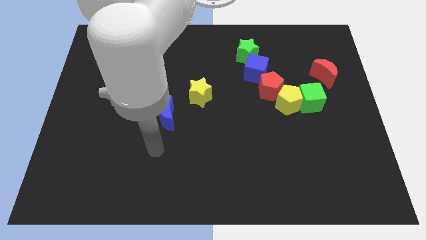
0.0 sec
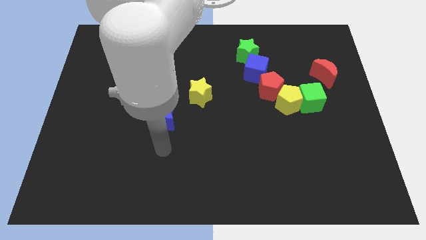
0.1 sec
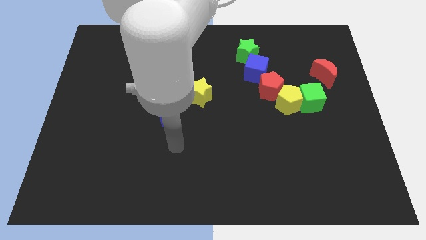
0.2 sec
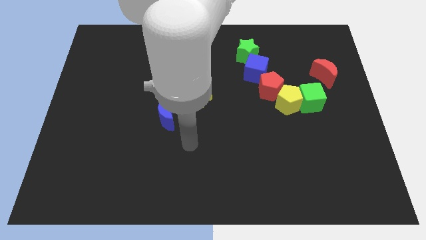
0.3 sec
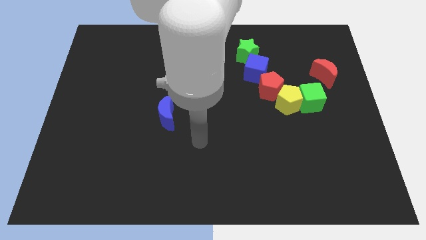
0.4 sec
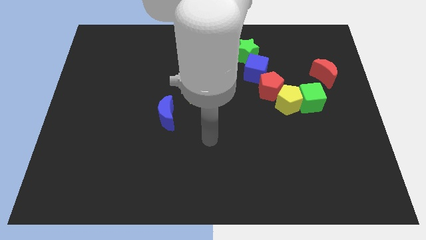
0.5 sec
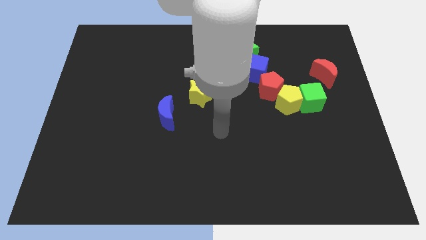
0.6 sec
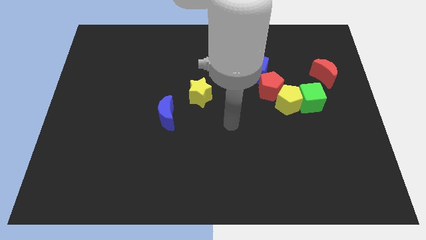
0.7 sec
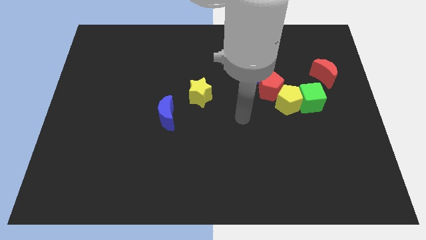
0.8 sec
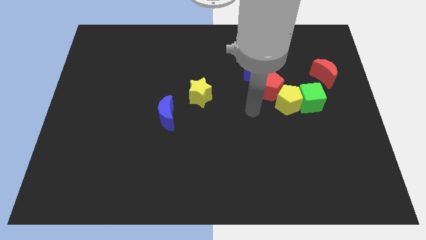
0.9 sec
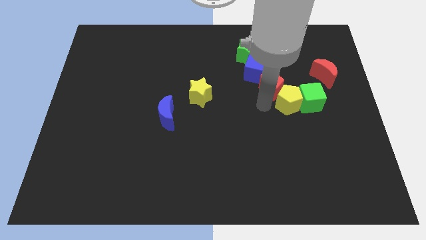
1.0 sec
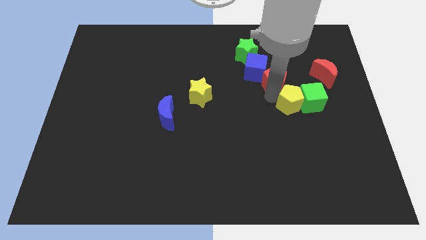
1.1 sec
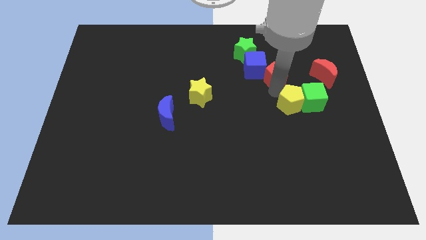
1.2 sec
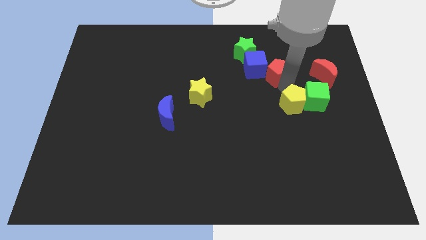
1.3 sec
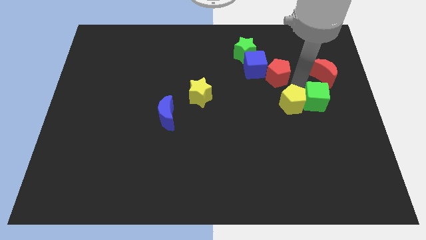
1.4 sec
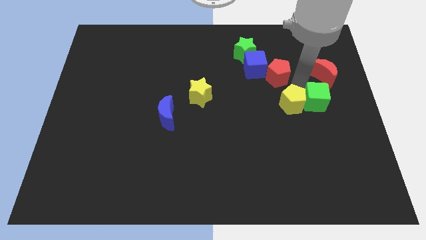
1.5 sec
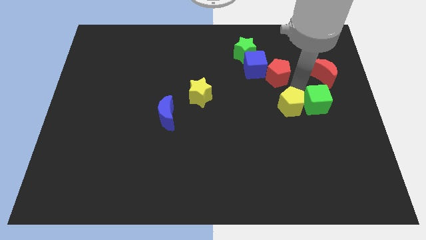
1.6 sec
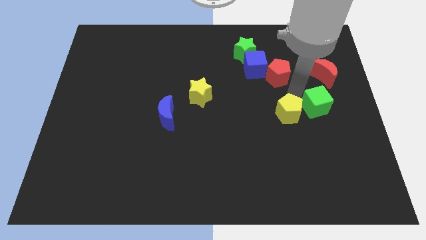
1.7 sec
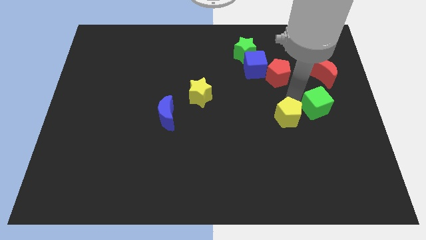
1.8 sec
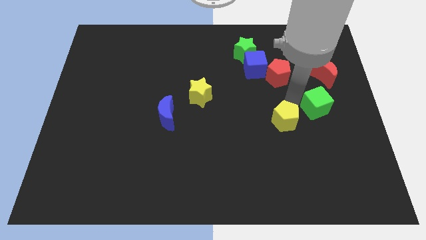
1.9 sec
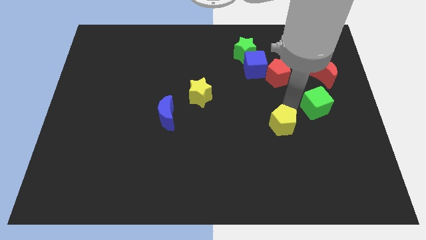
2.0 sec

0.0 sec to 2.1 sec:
move the yellow pentagon away from the green cube and red pentagon

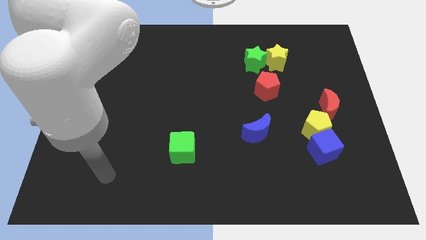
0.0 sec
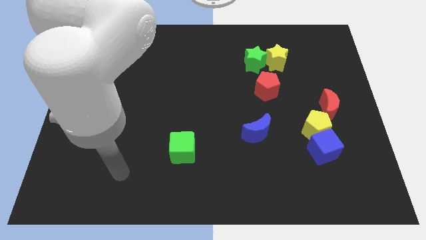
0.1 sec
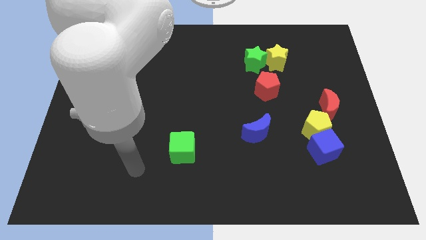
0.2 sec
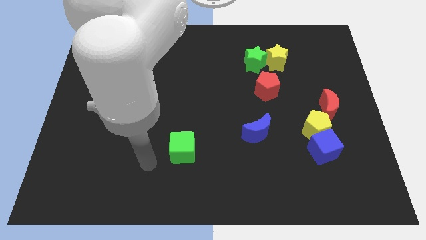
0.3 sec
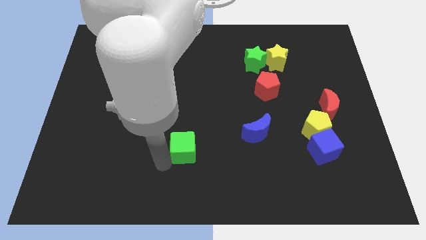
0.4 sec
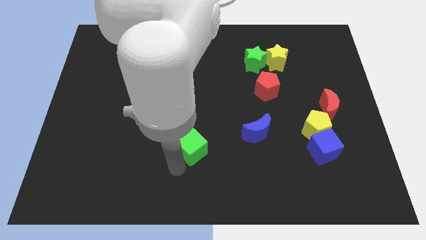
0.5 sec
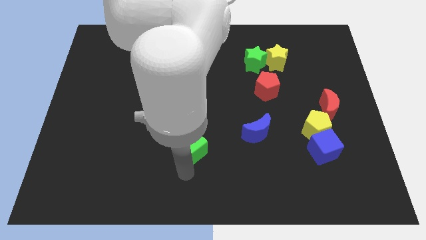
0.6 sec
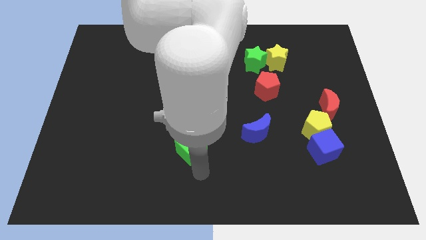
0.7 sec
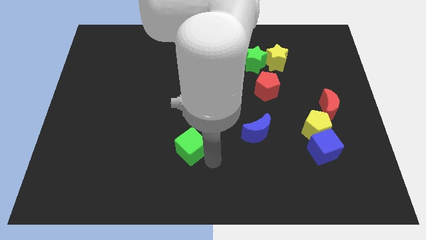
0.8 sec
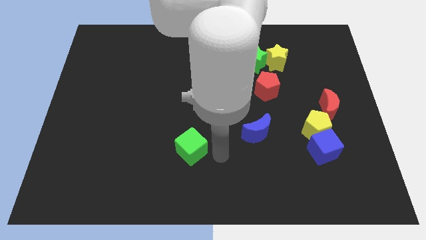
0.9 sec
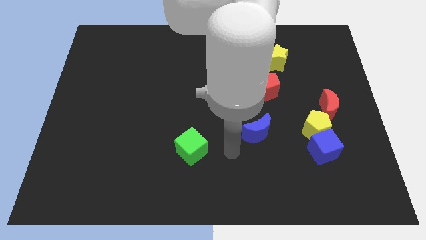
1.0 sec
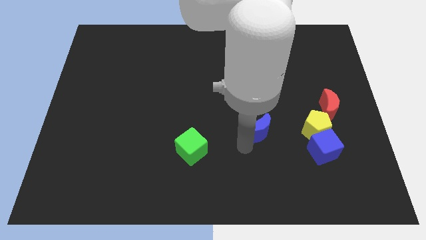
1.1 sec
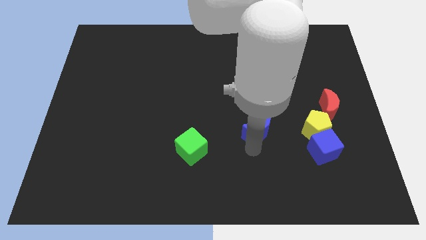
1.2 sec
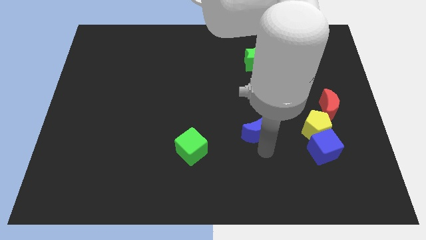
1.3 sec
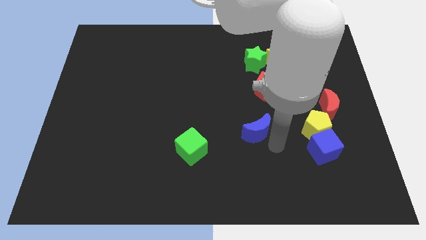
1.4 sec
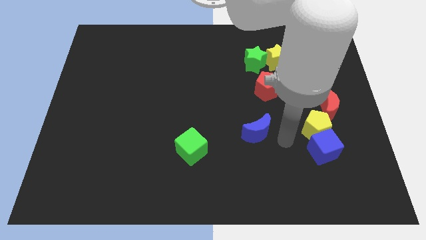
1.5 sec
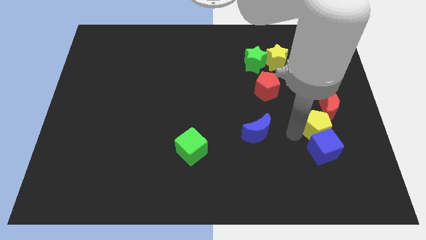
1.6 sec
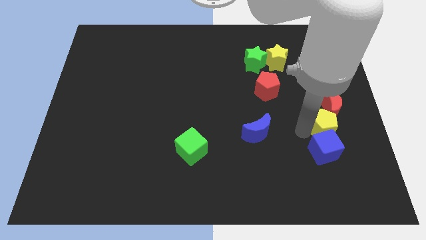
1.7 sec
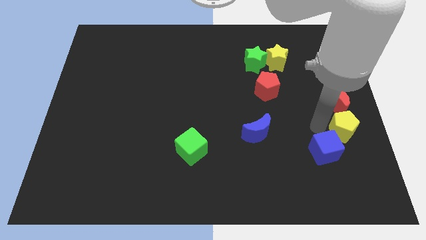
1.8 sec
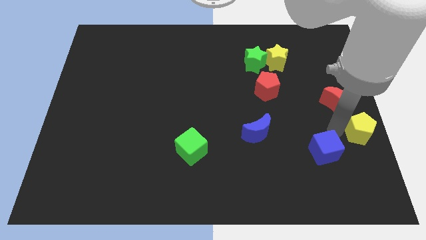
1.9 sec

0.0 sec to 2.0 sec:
pull the blue cube apart from the yellow pentagon

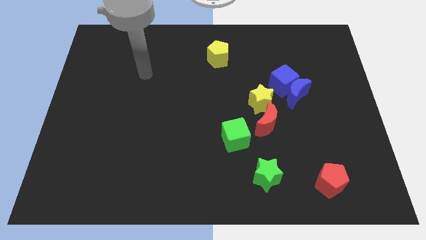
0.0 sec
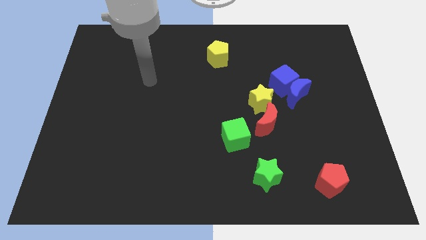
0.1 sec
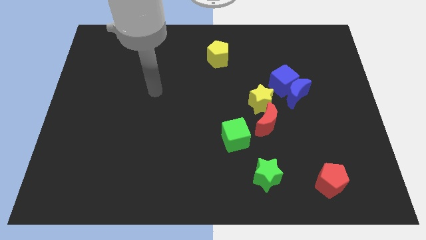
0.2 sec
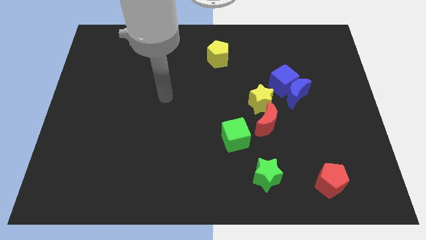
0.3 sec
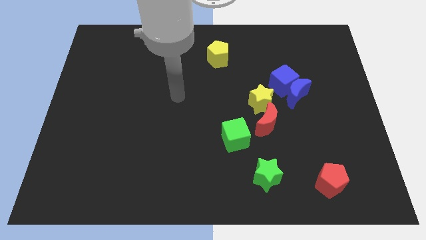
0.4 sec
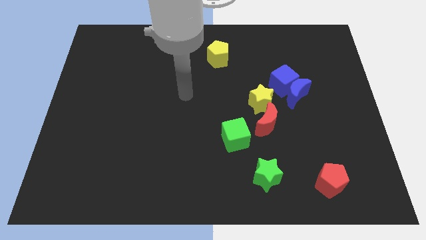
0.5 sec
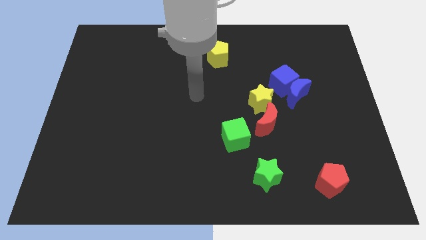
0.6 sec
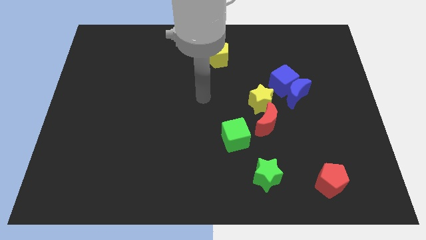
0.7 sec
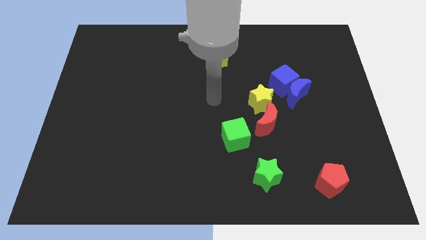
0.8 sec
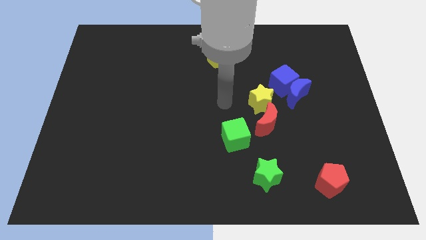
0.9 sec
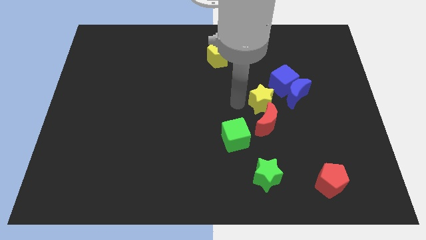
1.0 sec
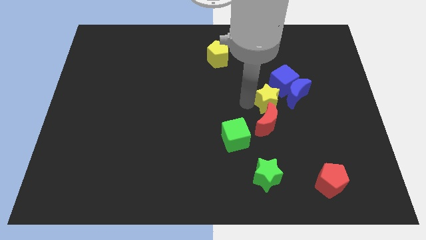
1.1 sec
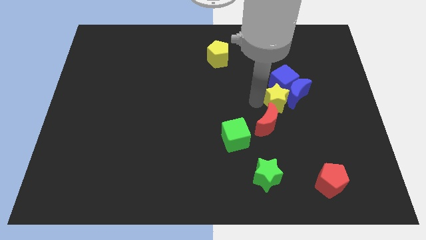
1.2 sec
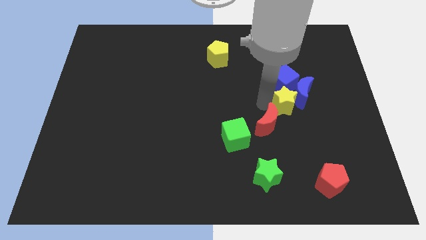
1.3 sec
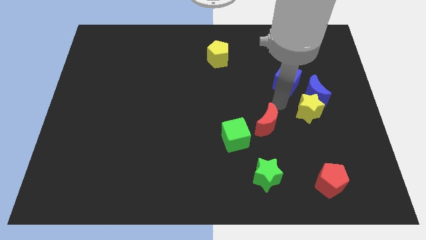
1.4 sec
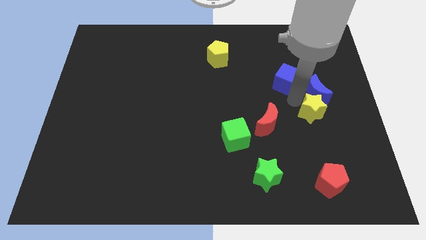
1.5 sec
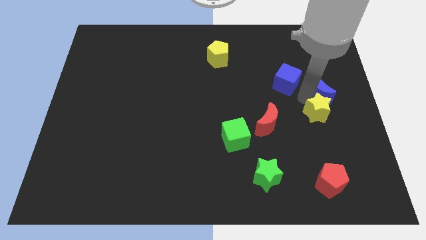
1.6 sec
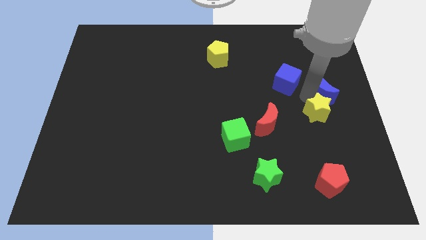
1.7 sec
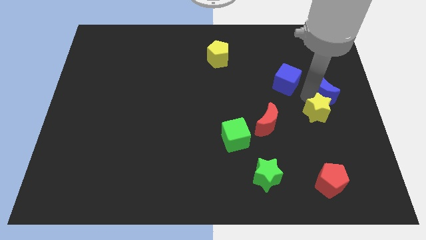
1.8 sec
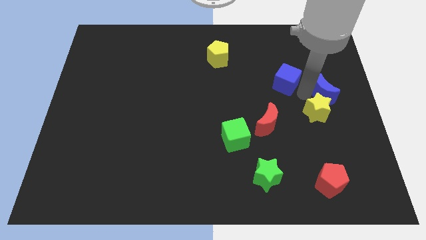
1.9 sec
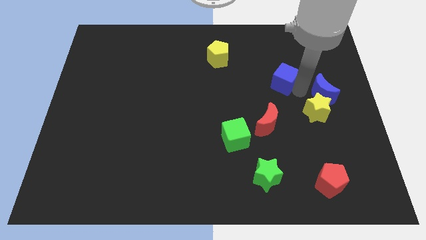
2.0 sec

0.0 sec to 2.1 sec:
pull the blue cube apart from the blue moon and yellow star

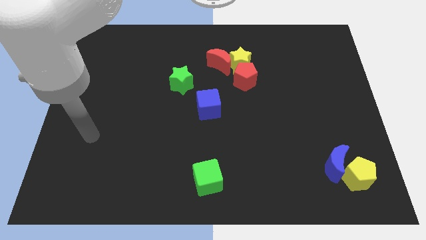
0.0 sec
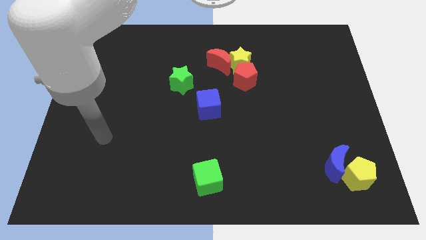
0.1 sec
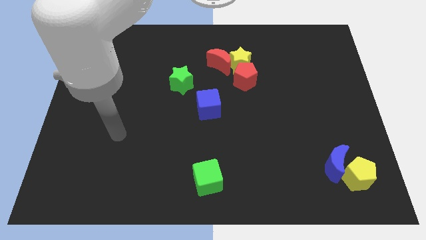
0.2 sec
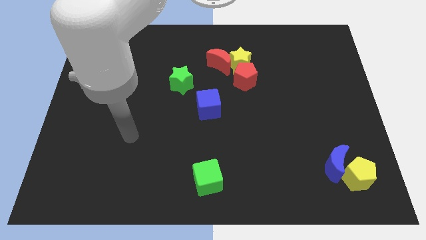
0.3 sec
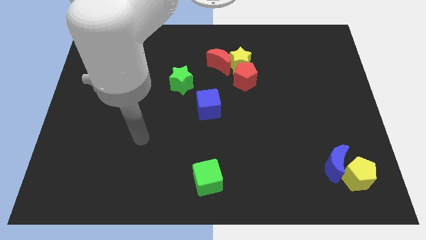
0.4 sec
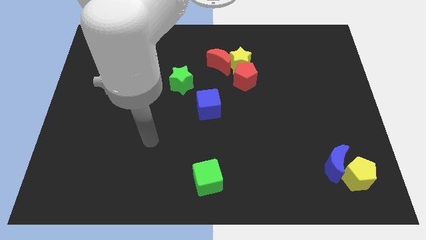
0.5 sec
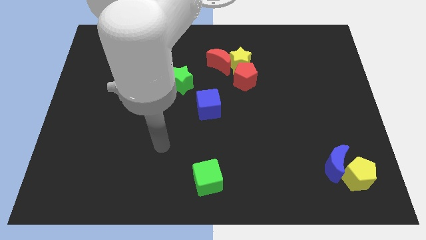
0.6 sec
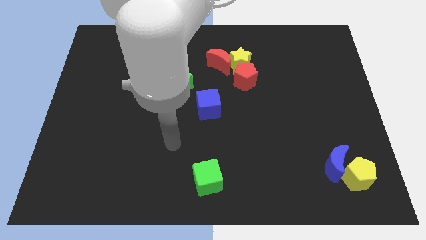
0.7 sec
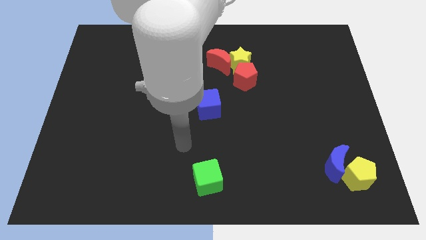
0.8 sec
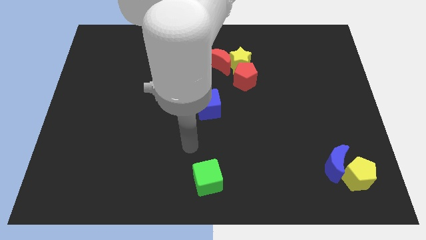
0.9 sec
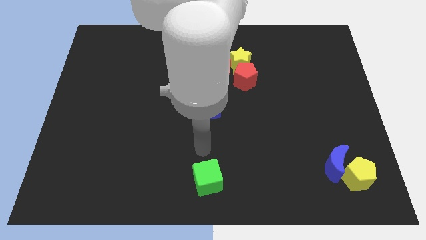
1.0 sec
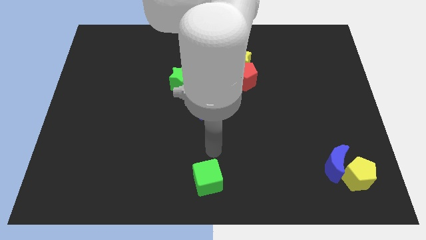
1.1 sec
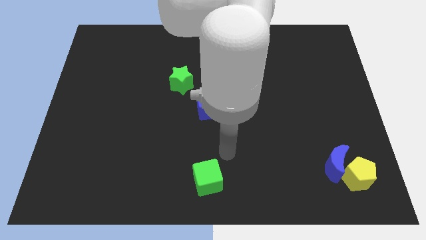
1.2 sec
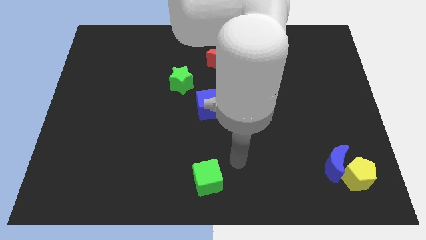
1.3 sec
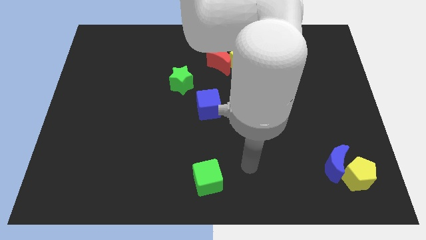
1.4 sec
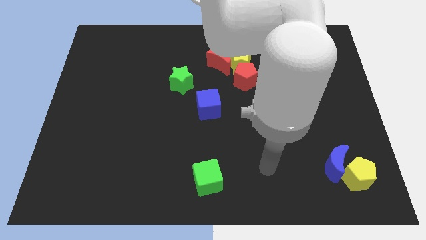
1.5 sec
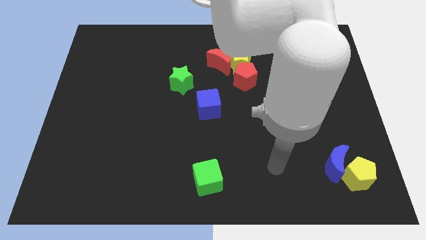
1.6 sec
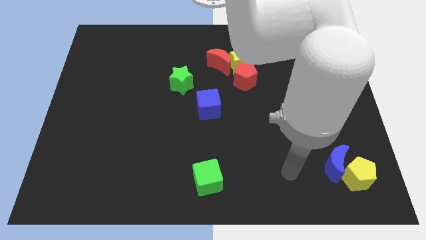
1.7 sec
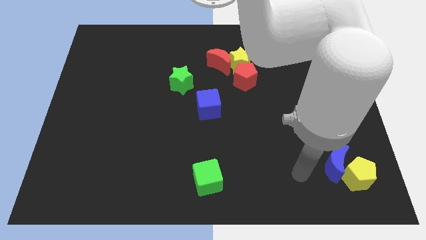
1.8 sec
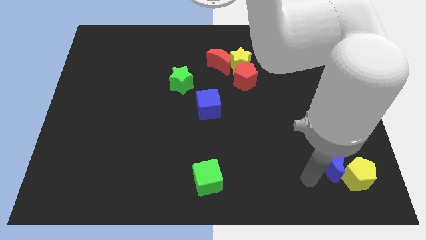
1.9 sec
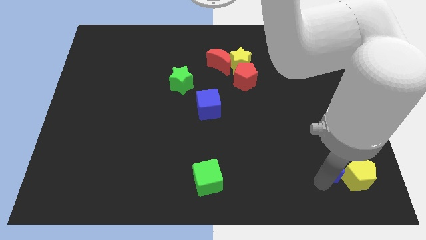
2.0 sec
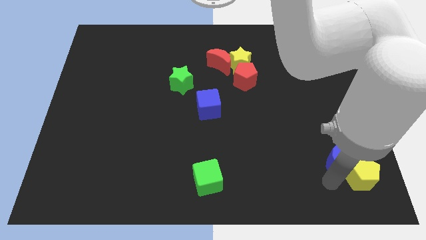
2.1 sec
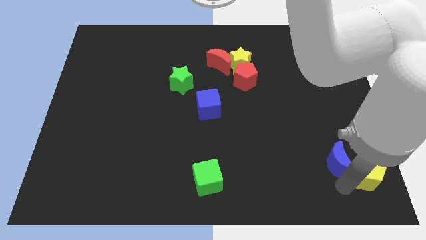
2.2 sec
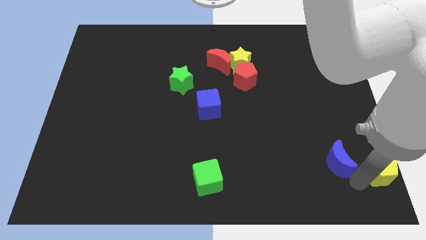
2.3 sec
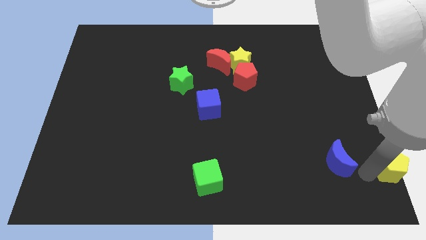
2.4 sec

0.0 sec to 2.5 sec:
pull the blue moon apart from the yellow pentagon

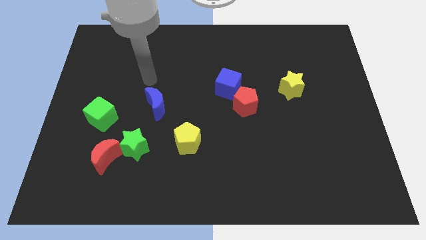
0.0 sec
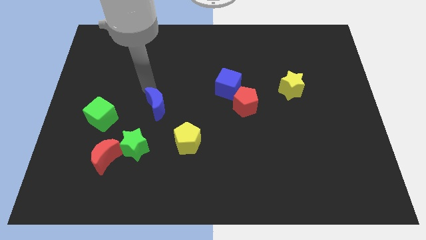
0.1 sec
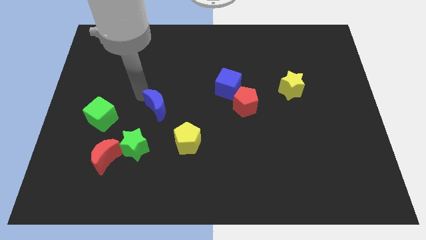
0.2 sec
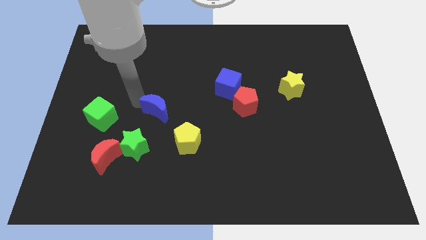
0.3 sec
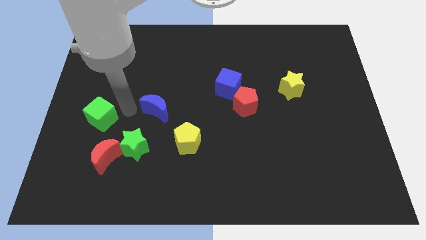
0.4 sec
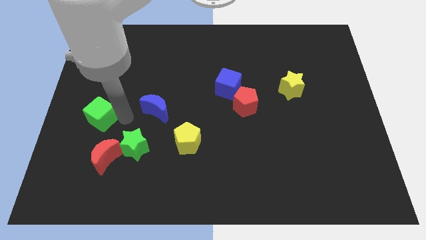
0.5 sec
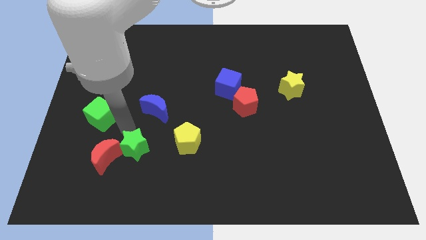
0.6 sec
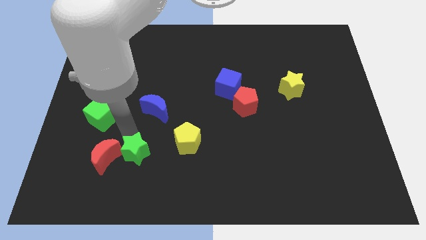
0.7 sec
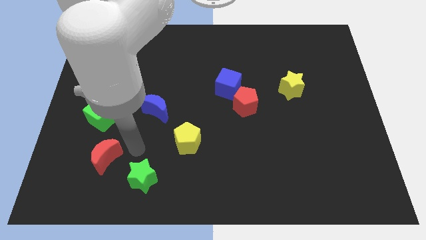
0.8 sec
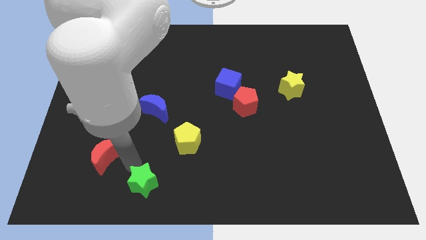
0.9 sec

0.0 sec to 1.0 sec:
move the red moon away from the green star
